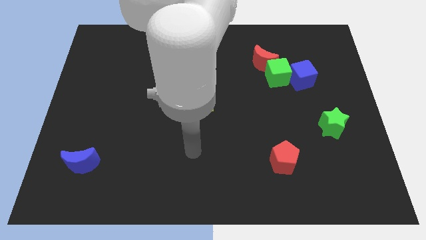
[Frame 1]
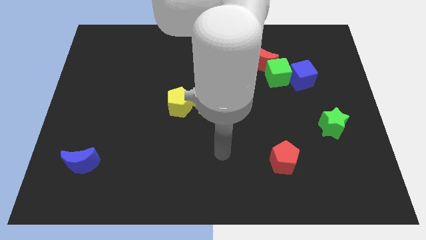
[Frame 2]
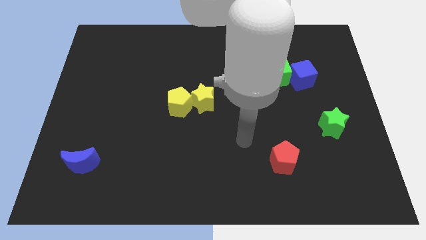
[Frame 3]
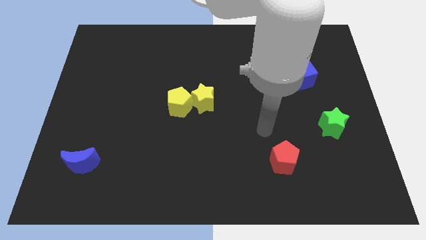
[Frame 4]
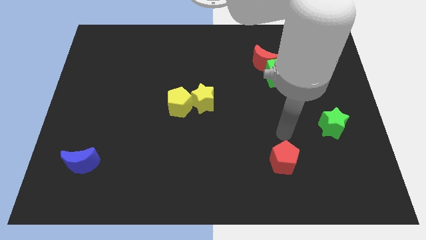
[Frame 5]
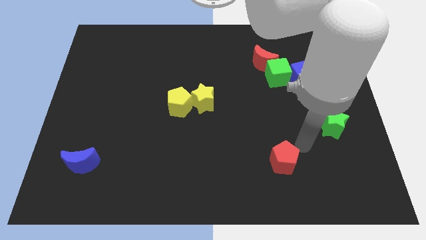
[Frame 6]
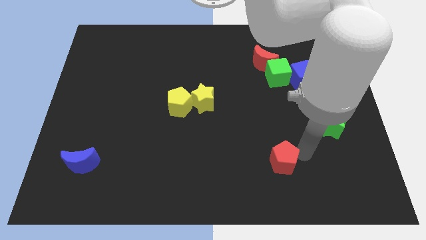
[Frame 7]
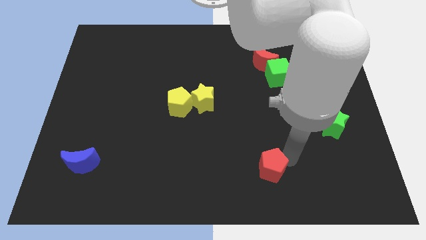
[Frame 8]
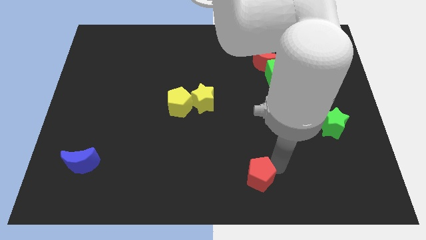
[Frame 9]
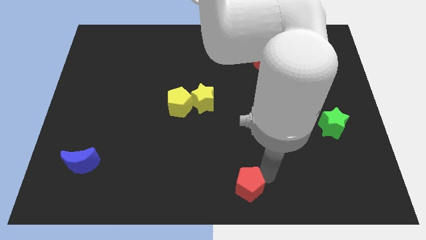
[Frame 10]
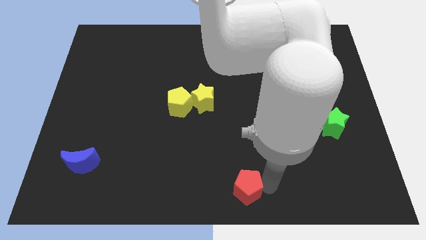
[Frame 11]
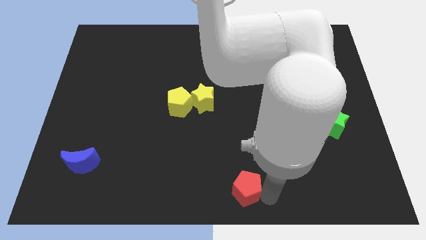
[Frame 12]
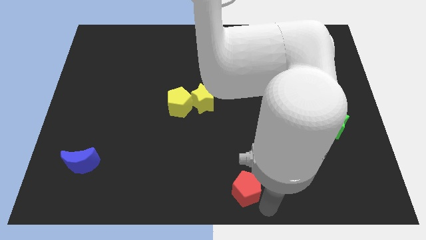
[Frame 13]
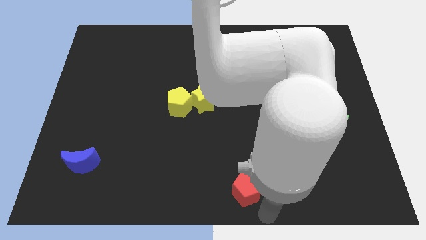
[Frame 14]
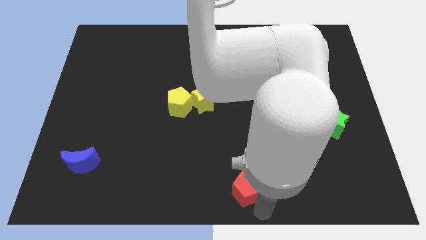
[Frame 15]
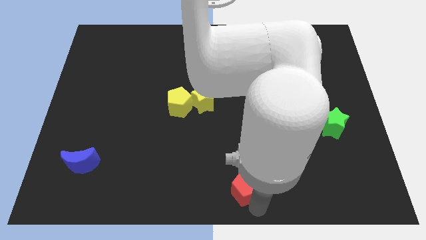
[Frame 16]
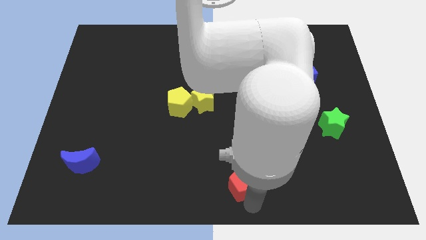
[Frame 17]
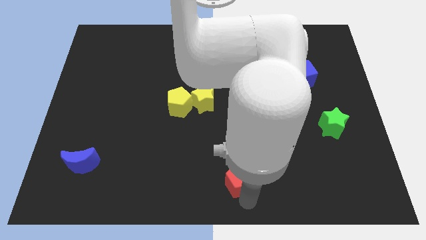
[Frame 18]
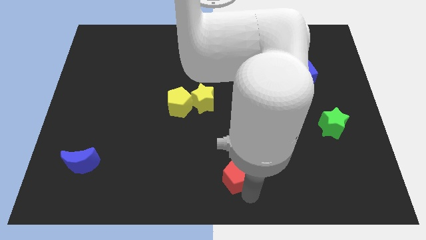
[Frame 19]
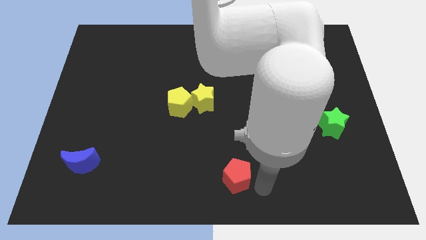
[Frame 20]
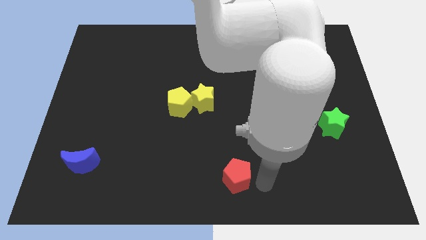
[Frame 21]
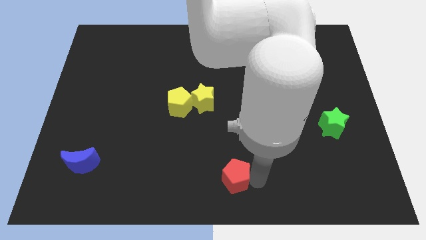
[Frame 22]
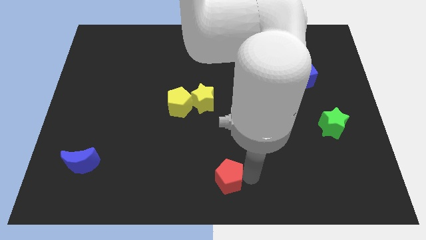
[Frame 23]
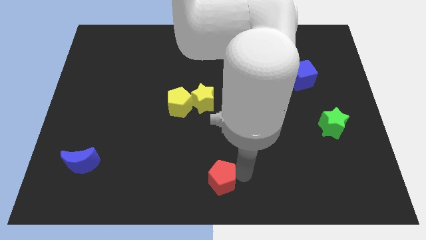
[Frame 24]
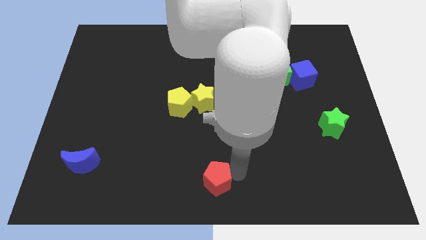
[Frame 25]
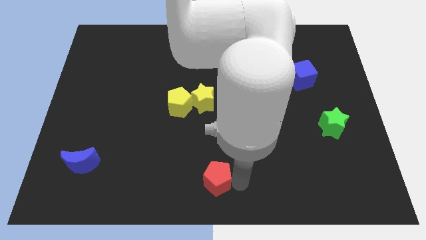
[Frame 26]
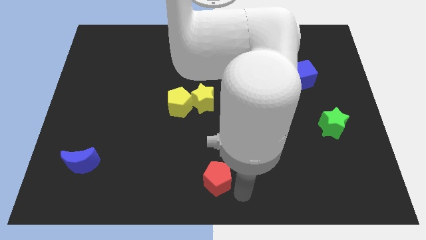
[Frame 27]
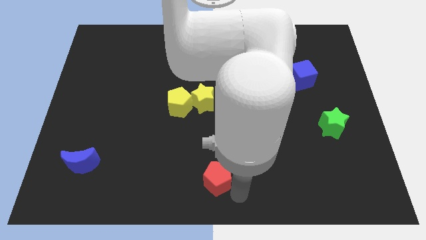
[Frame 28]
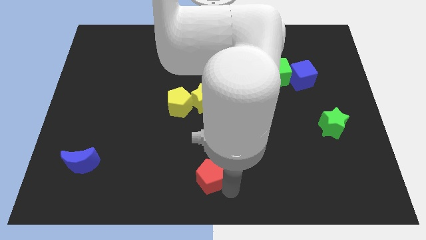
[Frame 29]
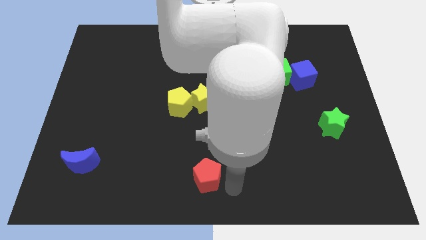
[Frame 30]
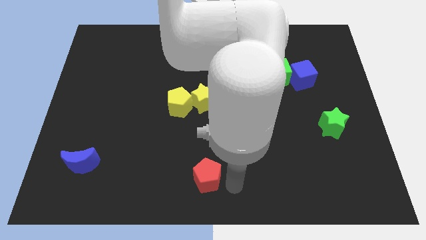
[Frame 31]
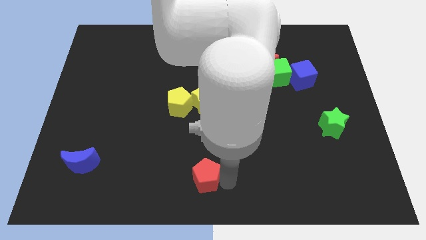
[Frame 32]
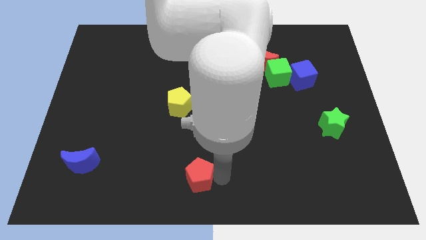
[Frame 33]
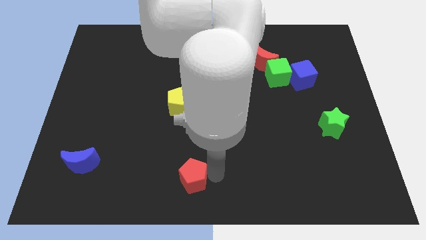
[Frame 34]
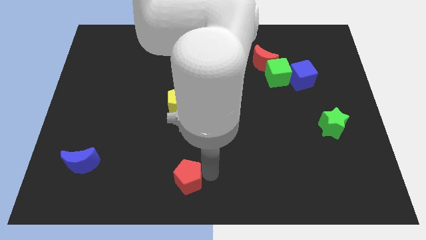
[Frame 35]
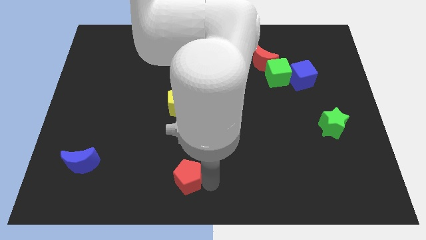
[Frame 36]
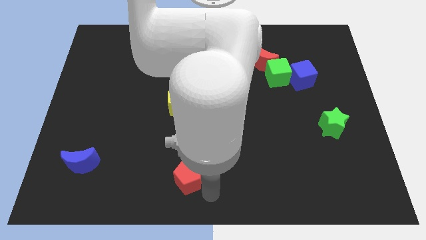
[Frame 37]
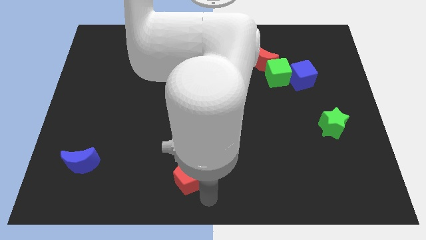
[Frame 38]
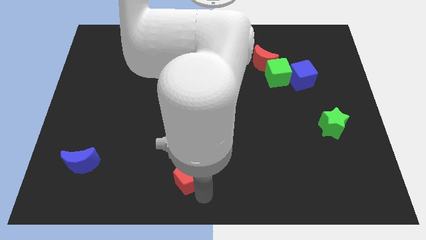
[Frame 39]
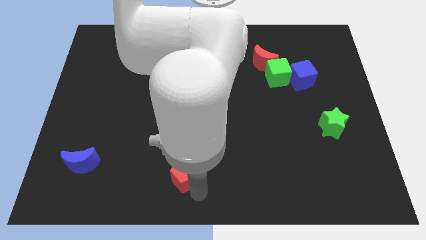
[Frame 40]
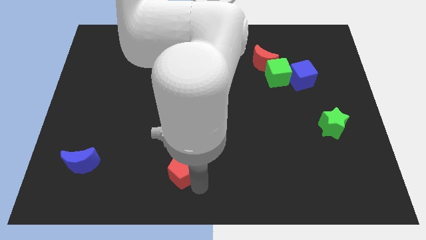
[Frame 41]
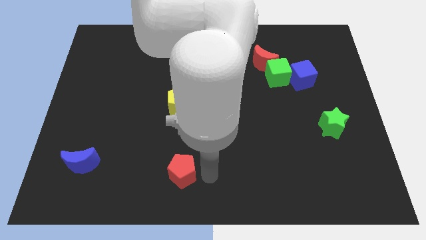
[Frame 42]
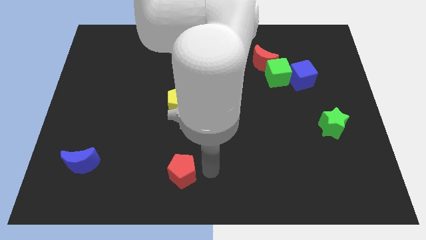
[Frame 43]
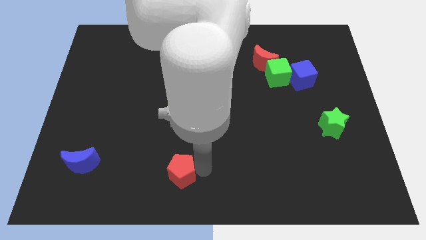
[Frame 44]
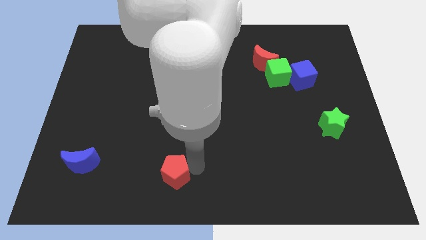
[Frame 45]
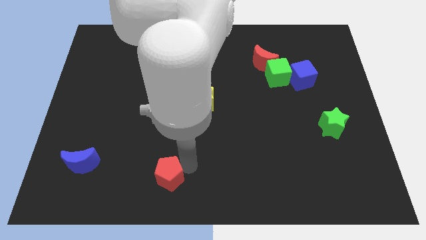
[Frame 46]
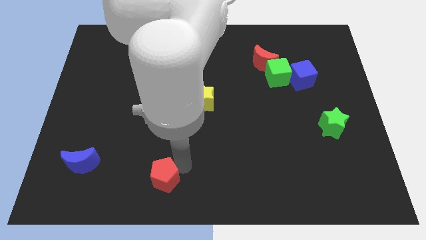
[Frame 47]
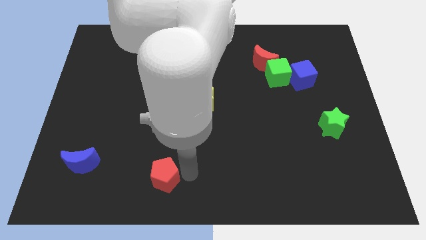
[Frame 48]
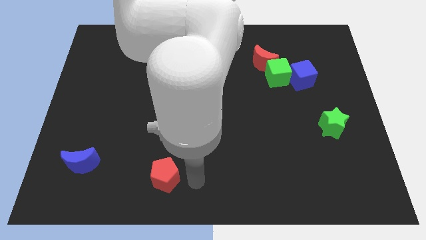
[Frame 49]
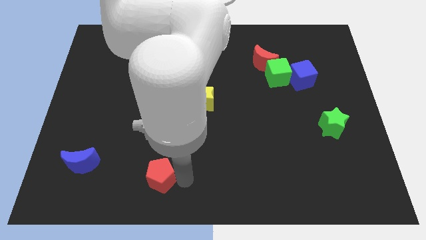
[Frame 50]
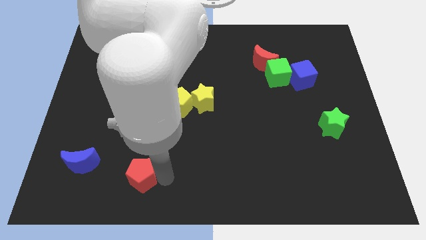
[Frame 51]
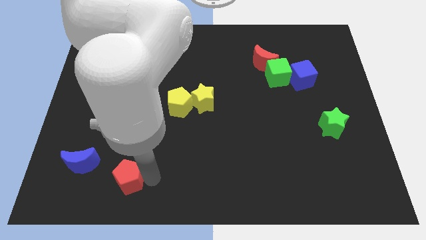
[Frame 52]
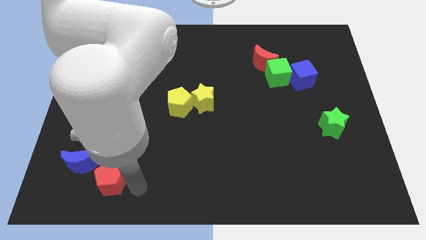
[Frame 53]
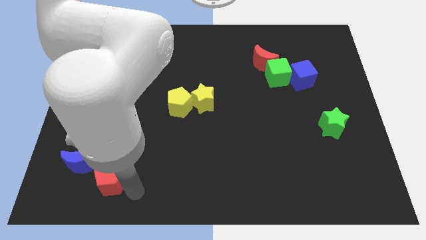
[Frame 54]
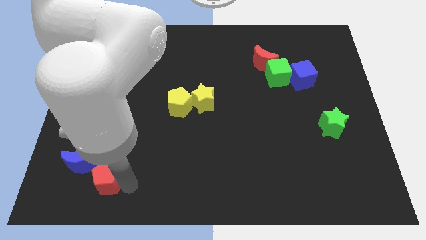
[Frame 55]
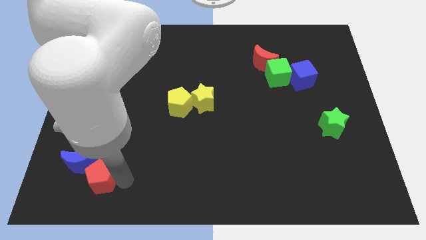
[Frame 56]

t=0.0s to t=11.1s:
move the red pentagon close to the blue moon

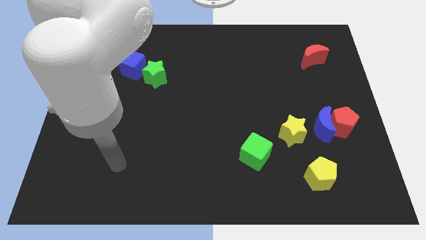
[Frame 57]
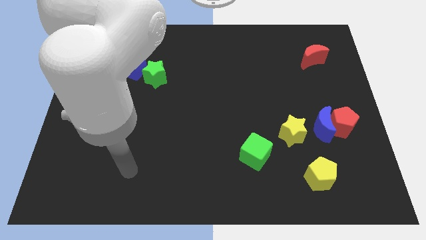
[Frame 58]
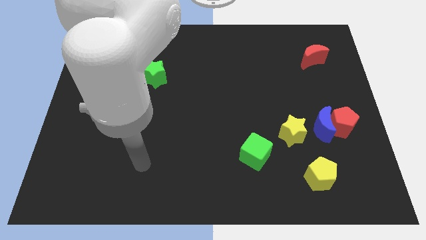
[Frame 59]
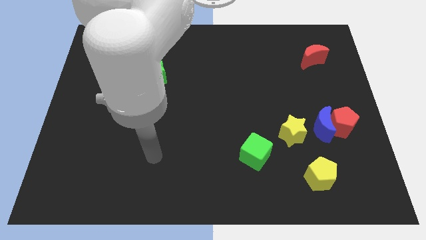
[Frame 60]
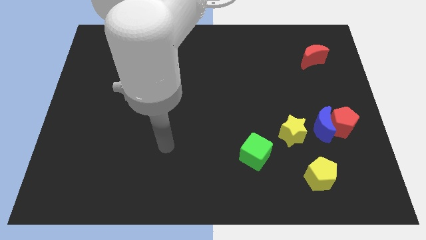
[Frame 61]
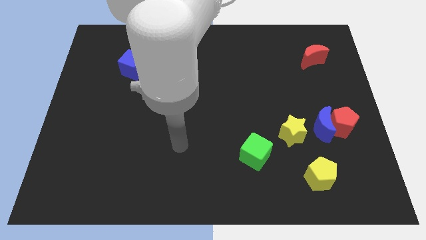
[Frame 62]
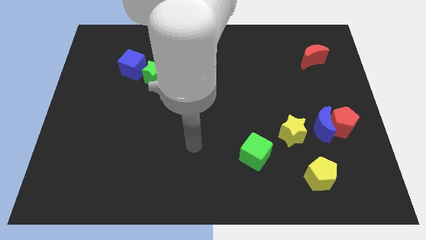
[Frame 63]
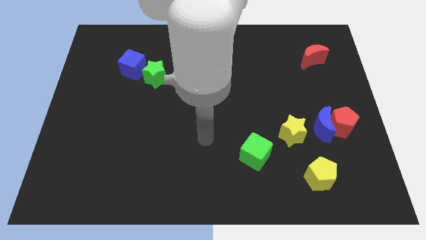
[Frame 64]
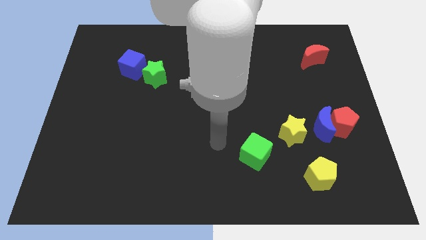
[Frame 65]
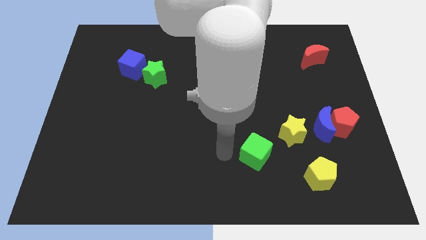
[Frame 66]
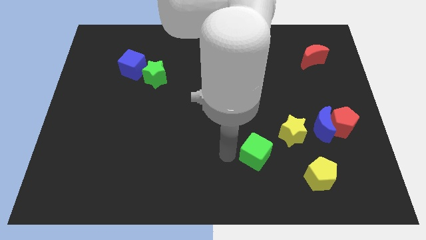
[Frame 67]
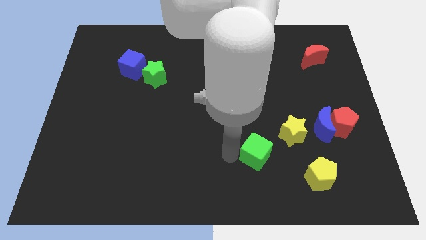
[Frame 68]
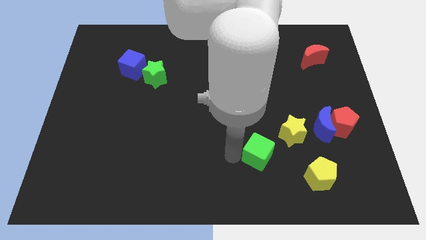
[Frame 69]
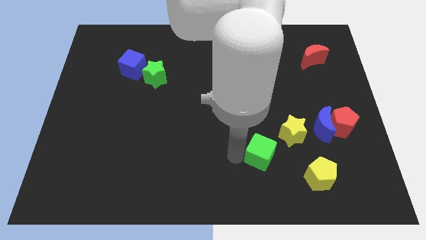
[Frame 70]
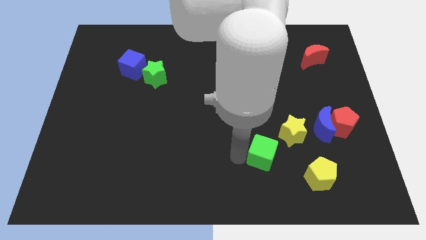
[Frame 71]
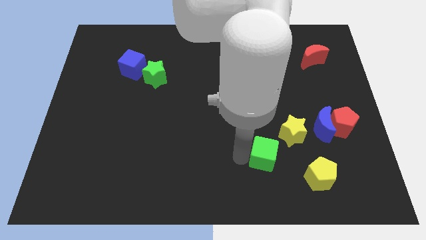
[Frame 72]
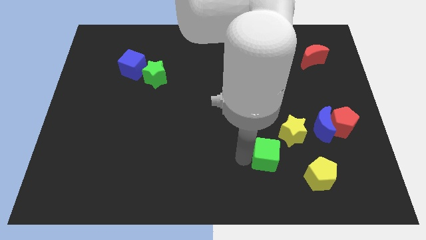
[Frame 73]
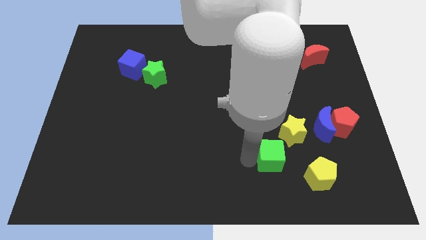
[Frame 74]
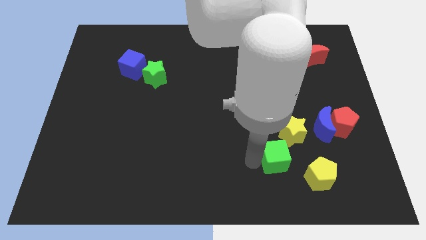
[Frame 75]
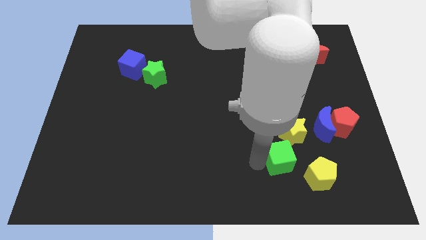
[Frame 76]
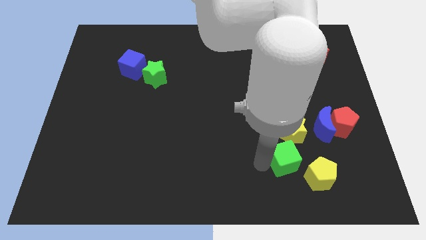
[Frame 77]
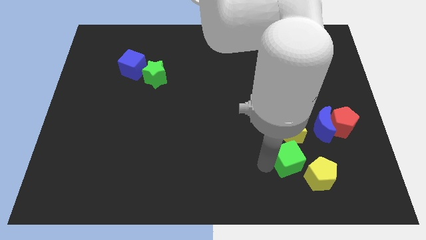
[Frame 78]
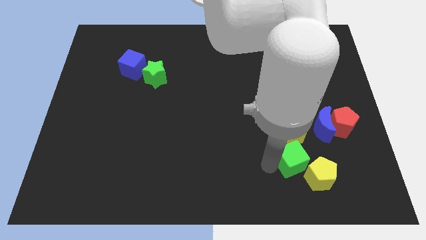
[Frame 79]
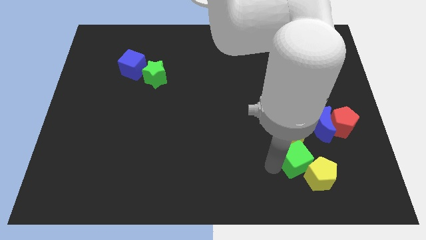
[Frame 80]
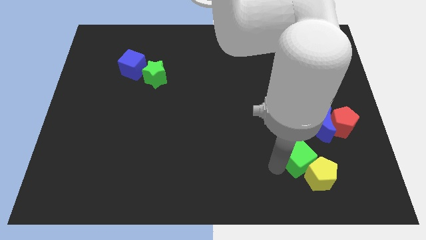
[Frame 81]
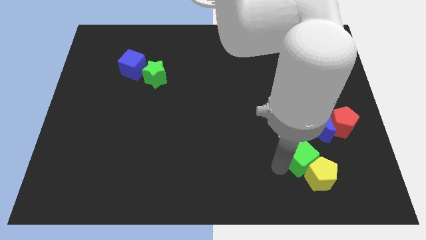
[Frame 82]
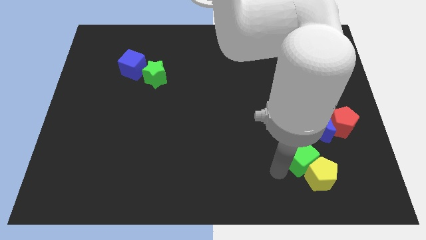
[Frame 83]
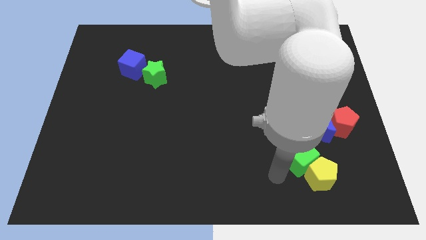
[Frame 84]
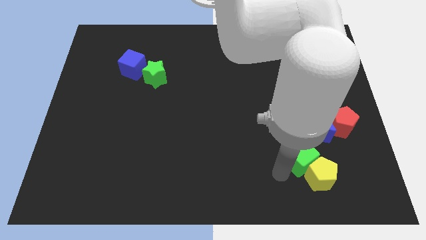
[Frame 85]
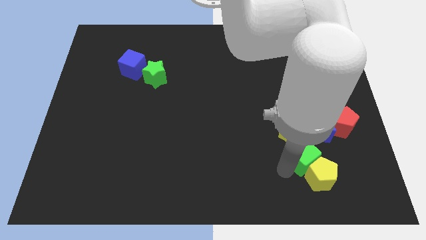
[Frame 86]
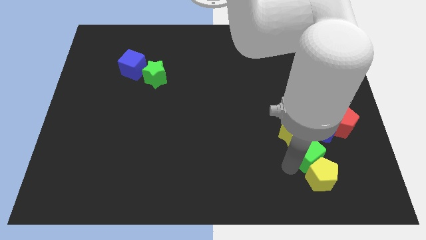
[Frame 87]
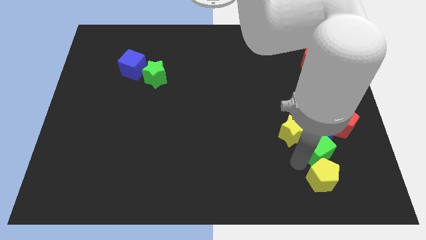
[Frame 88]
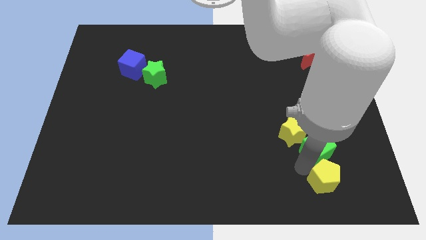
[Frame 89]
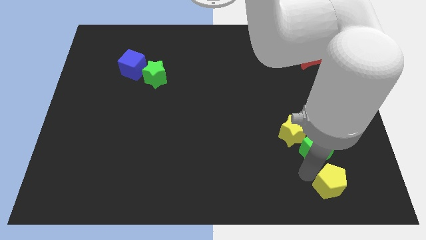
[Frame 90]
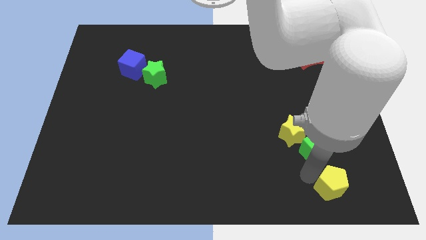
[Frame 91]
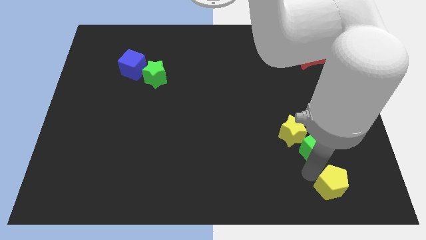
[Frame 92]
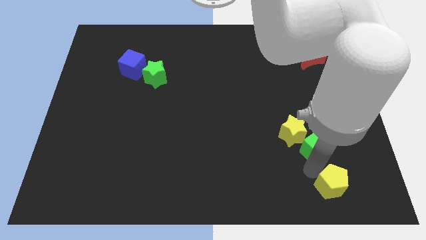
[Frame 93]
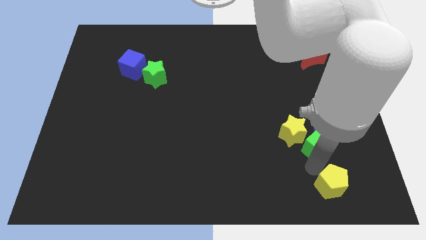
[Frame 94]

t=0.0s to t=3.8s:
slide the green cube towards the blue moon
